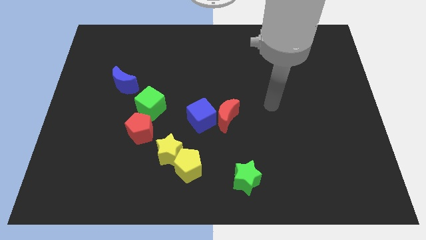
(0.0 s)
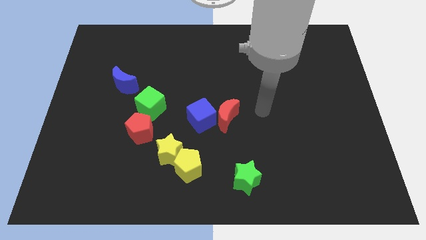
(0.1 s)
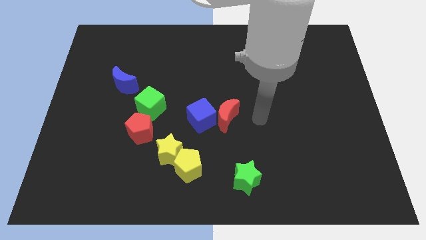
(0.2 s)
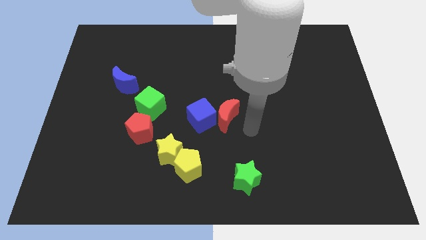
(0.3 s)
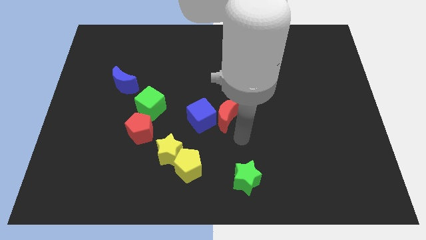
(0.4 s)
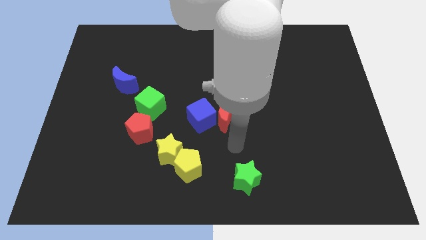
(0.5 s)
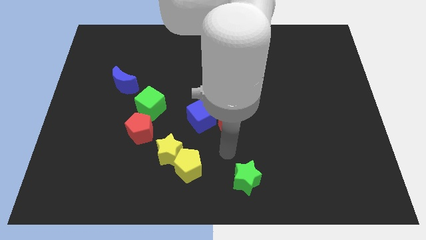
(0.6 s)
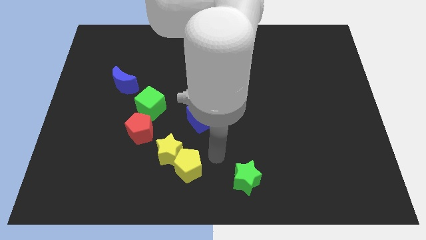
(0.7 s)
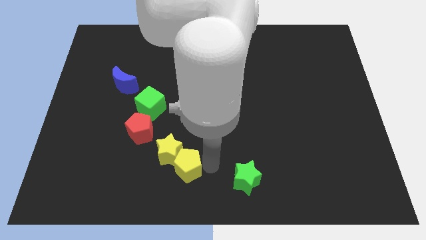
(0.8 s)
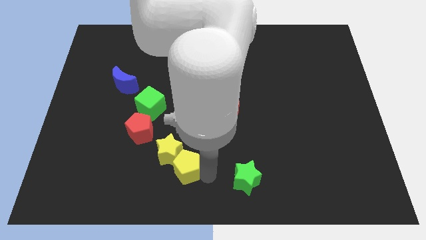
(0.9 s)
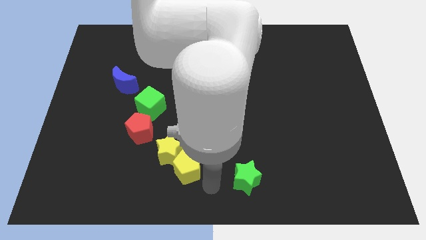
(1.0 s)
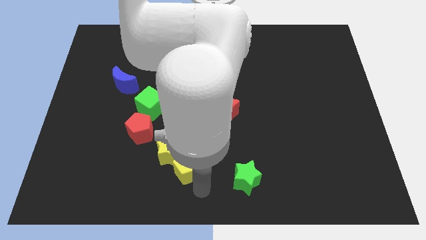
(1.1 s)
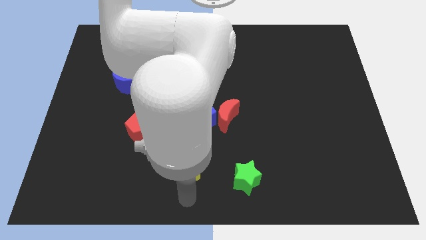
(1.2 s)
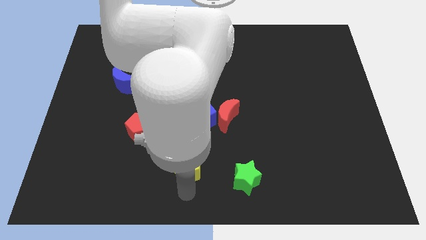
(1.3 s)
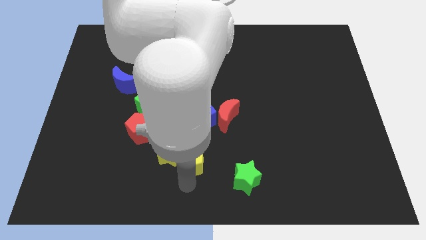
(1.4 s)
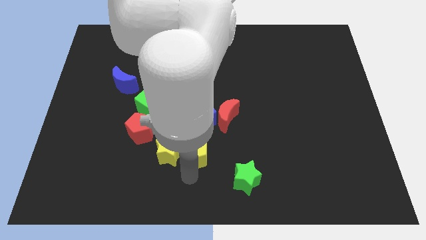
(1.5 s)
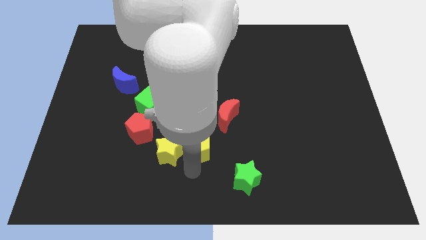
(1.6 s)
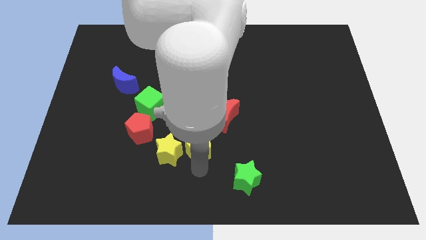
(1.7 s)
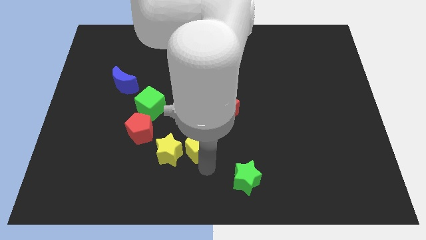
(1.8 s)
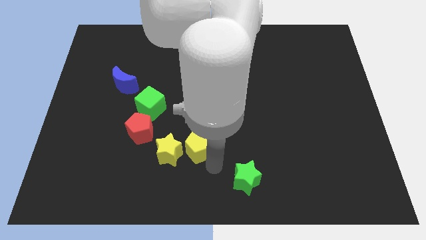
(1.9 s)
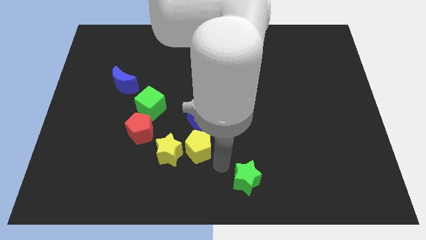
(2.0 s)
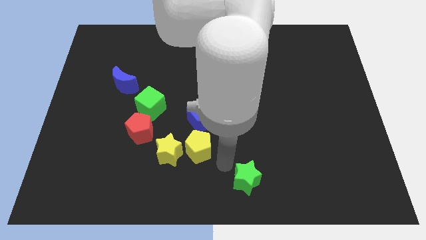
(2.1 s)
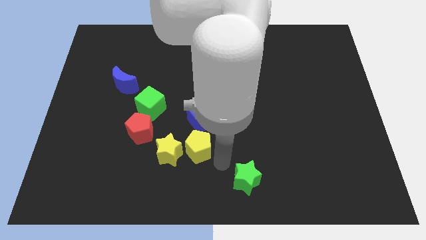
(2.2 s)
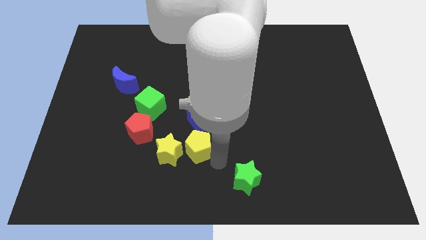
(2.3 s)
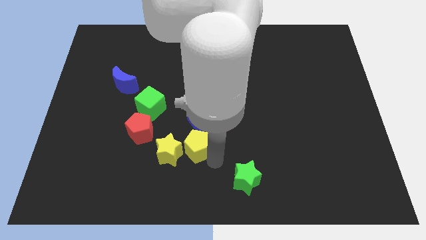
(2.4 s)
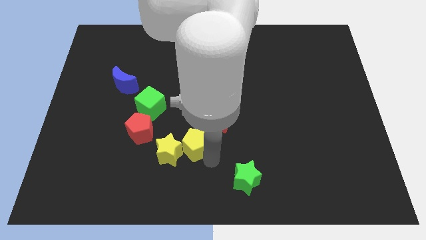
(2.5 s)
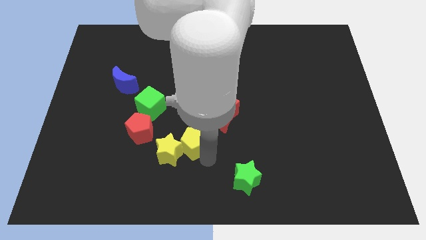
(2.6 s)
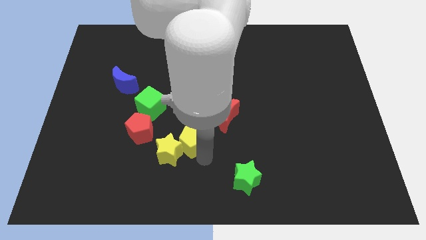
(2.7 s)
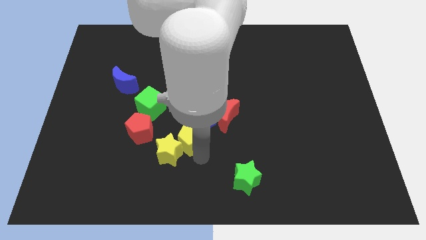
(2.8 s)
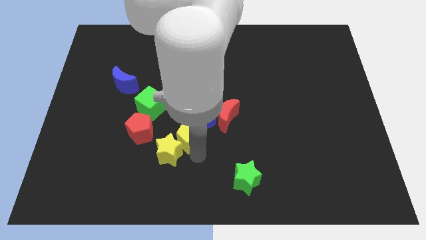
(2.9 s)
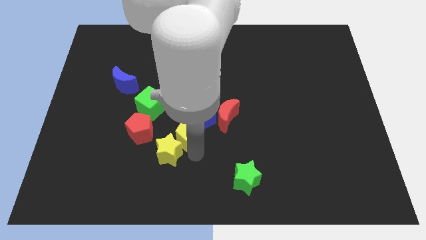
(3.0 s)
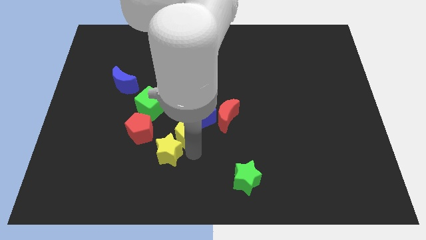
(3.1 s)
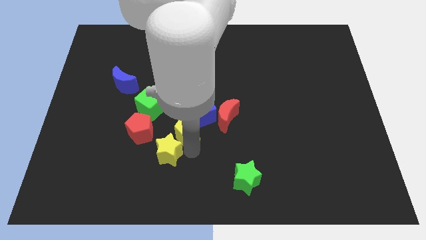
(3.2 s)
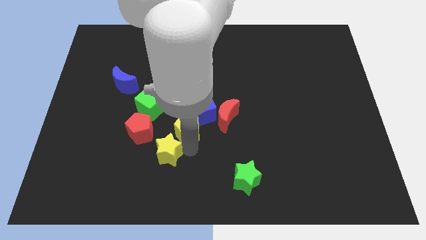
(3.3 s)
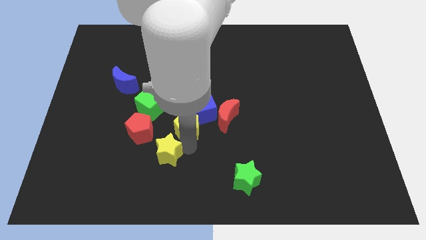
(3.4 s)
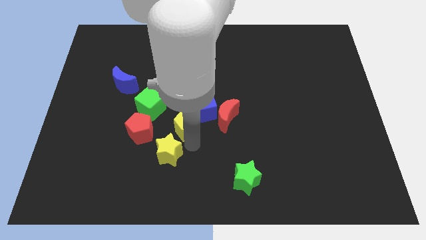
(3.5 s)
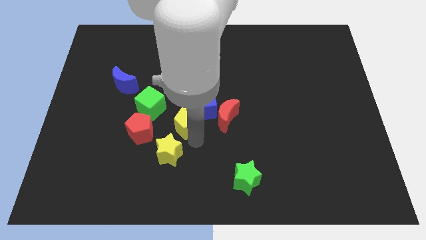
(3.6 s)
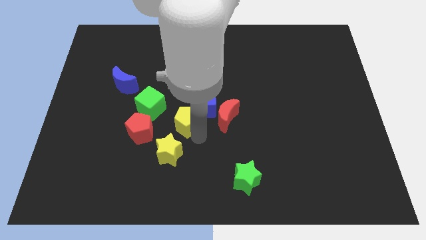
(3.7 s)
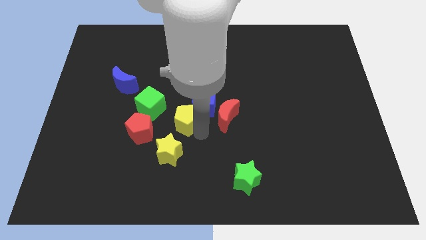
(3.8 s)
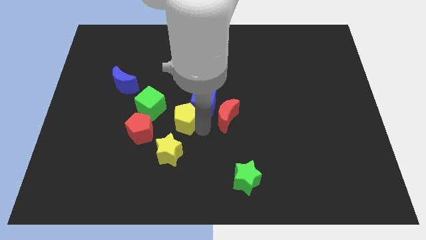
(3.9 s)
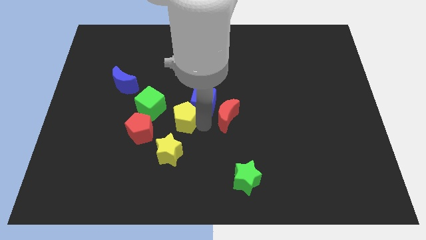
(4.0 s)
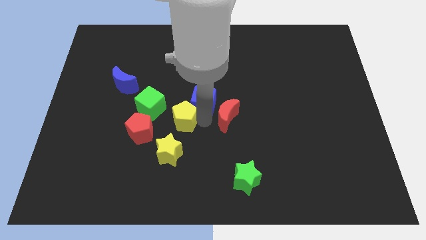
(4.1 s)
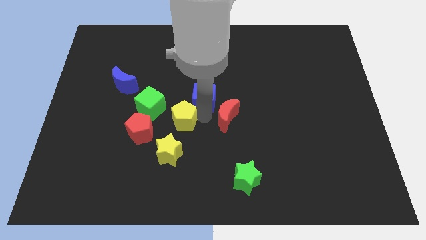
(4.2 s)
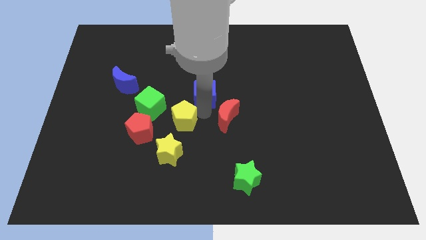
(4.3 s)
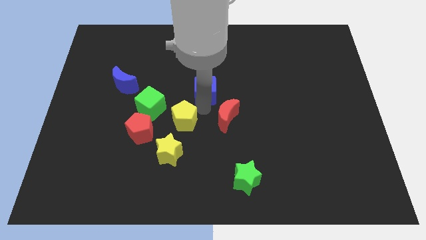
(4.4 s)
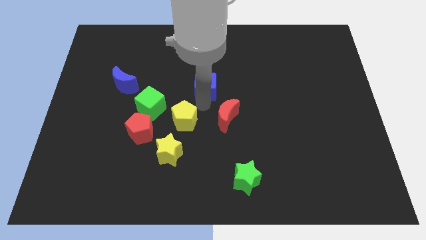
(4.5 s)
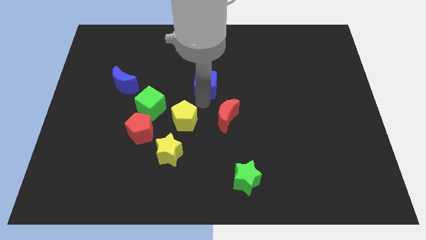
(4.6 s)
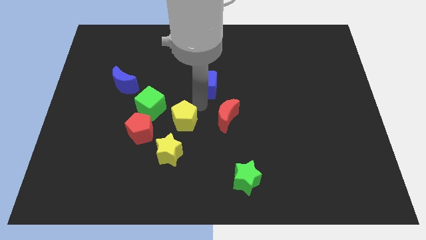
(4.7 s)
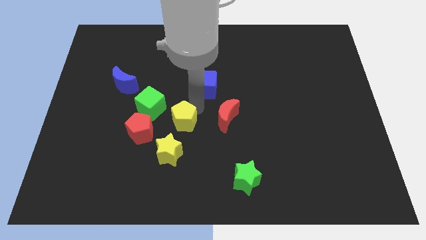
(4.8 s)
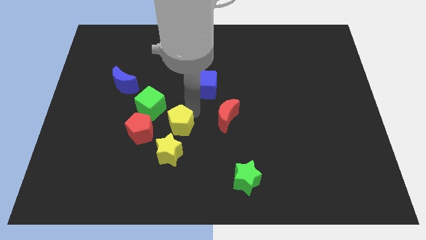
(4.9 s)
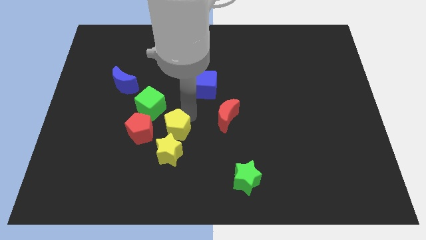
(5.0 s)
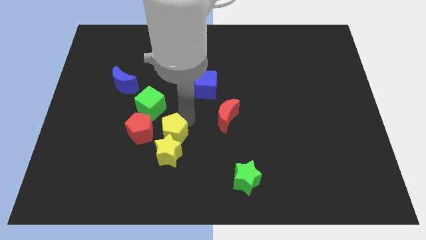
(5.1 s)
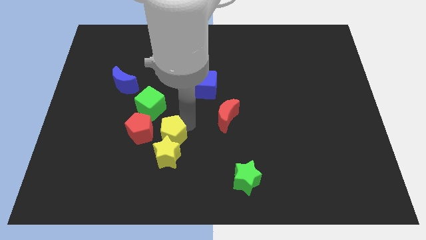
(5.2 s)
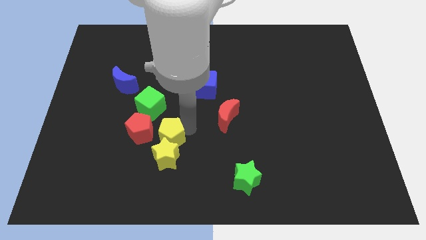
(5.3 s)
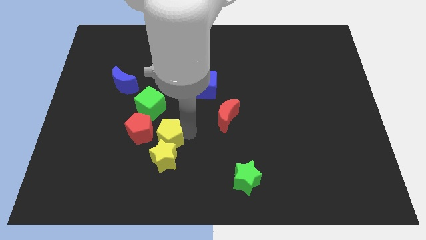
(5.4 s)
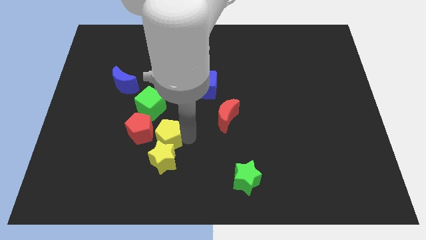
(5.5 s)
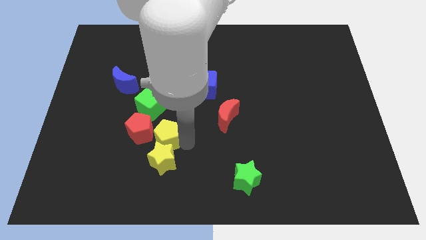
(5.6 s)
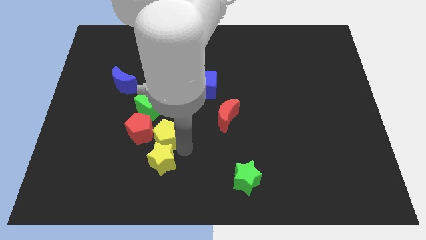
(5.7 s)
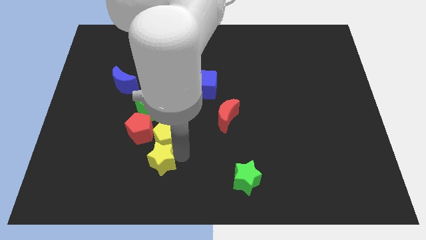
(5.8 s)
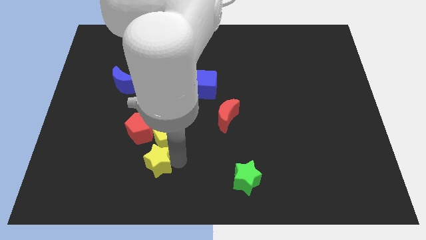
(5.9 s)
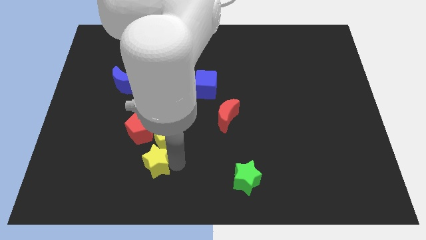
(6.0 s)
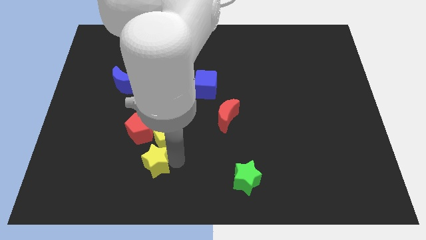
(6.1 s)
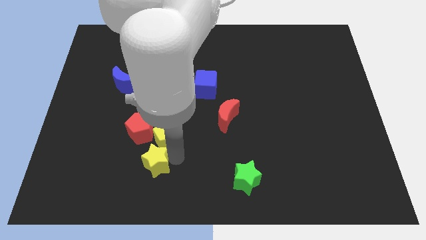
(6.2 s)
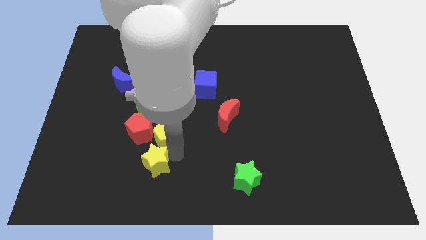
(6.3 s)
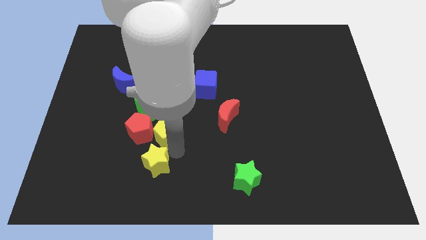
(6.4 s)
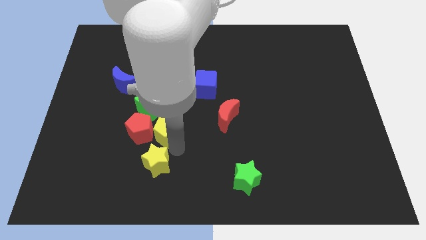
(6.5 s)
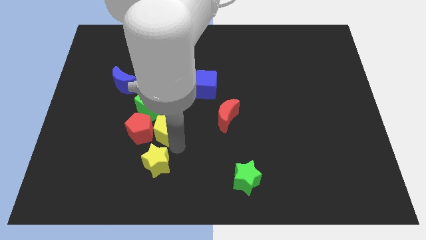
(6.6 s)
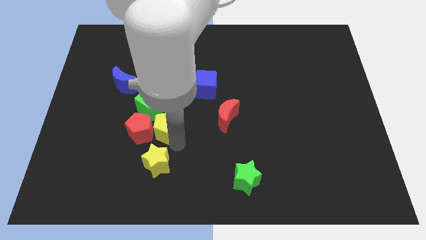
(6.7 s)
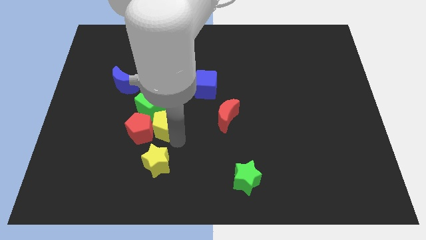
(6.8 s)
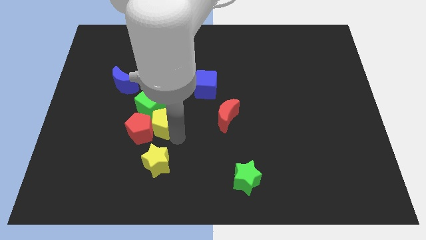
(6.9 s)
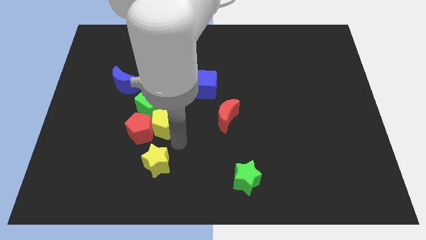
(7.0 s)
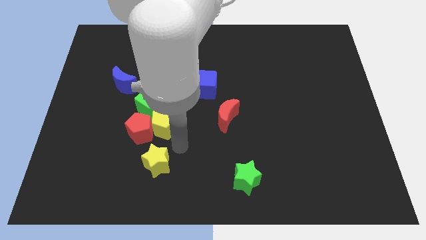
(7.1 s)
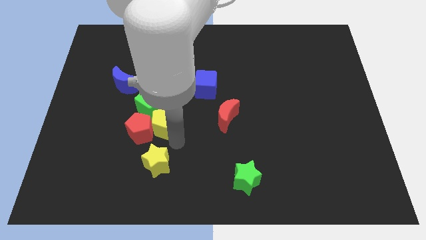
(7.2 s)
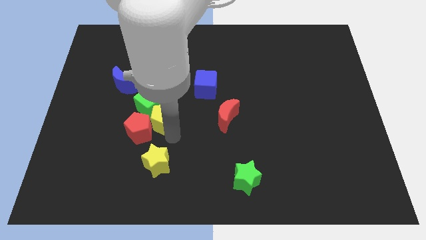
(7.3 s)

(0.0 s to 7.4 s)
slide the yellow pentagon to the green cube
